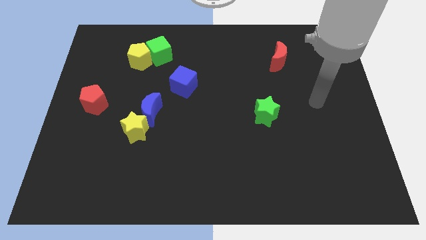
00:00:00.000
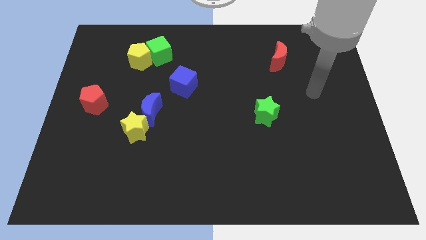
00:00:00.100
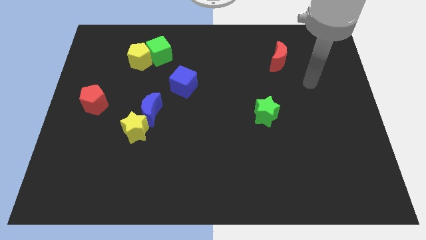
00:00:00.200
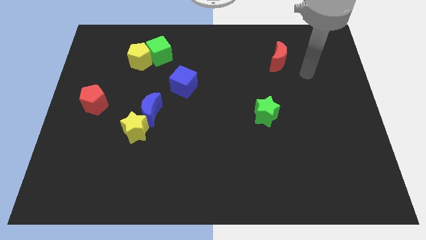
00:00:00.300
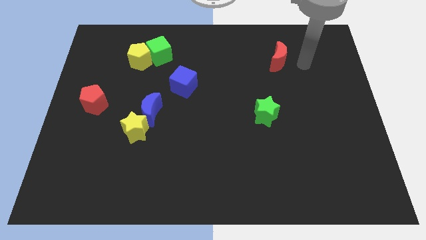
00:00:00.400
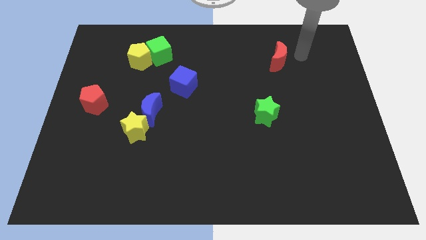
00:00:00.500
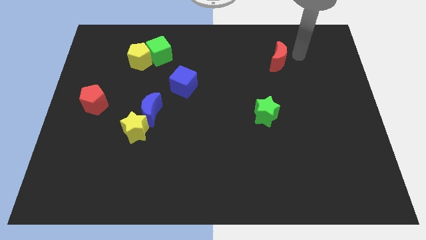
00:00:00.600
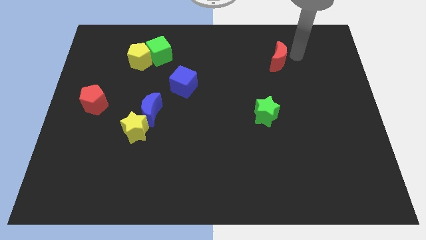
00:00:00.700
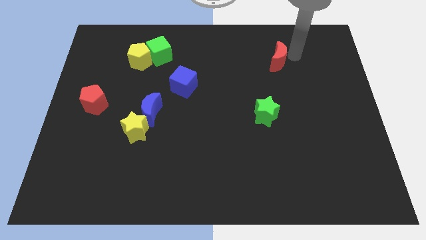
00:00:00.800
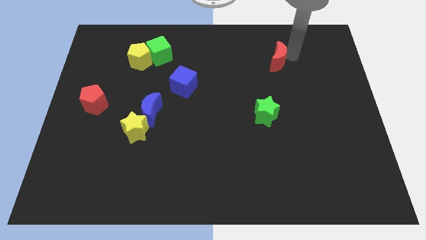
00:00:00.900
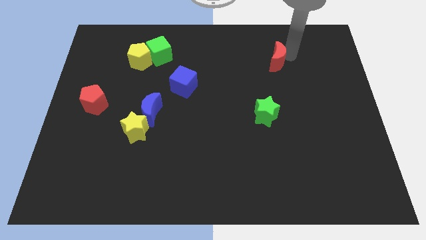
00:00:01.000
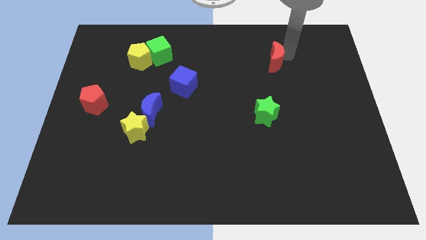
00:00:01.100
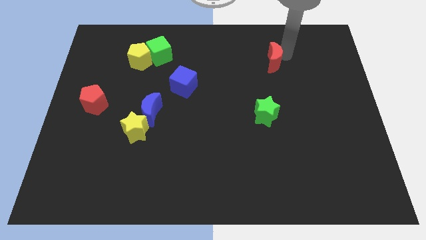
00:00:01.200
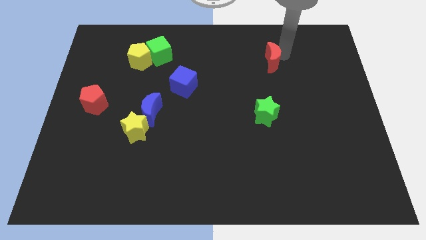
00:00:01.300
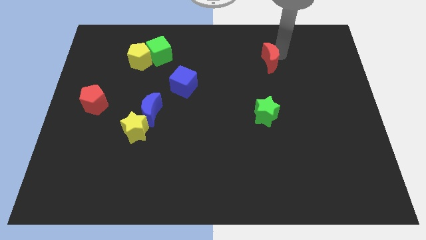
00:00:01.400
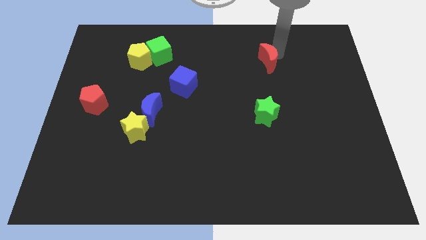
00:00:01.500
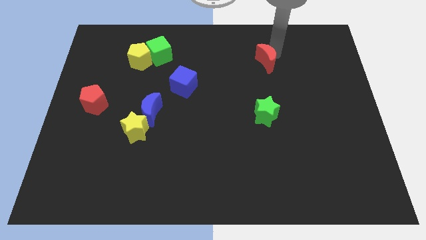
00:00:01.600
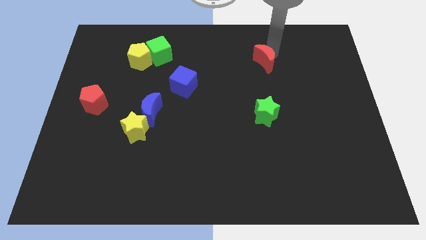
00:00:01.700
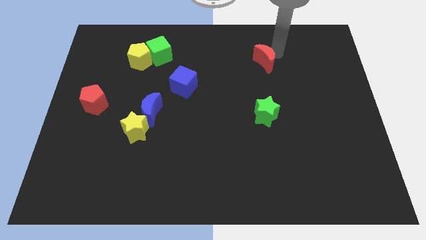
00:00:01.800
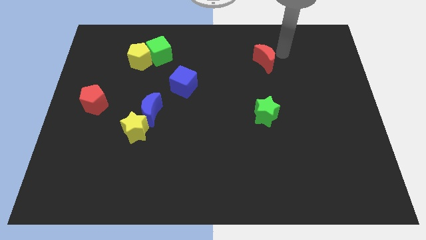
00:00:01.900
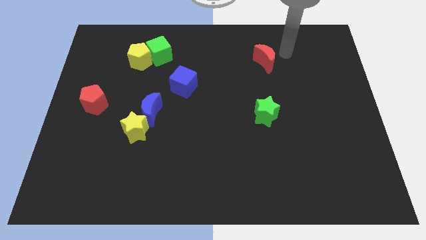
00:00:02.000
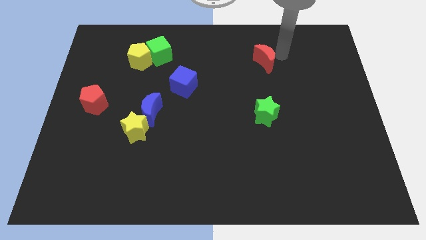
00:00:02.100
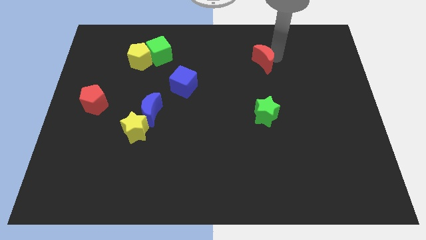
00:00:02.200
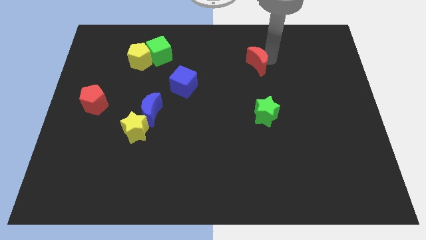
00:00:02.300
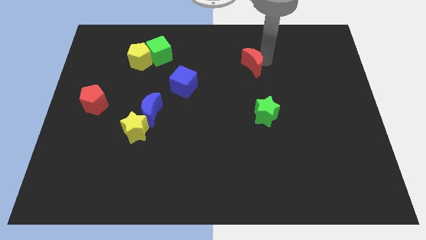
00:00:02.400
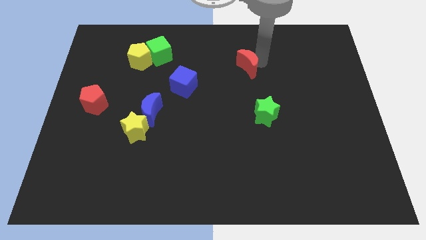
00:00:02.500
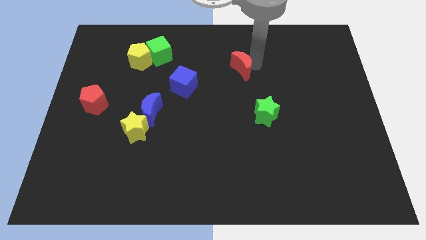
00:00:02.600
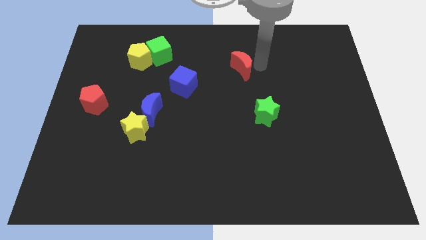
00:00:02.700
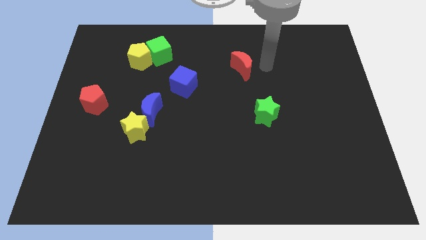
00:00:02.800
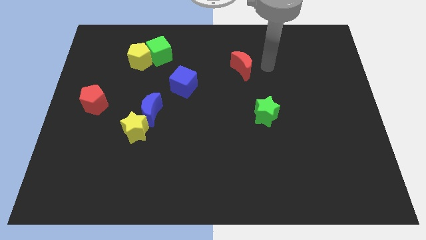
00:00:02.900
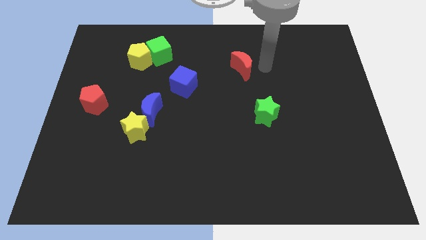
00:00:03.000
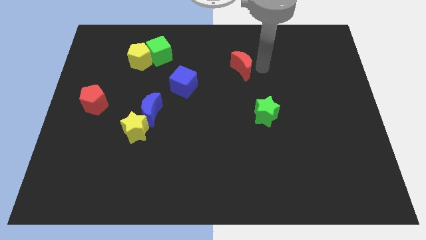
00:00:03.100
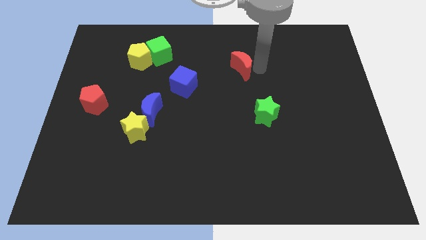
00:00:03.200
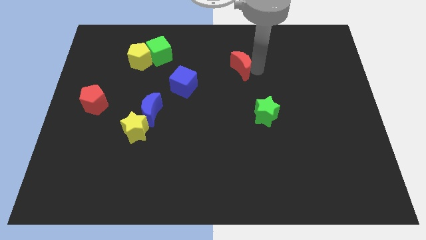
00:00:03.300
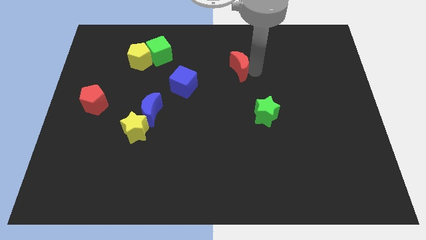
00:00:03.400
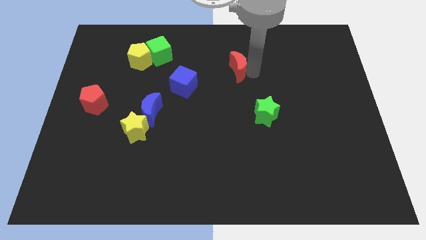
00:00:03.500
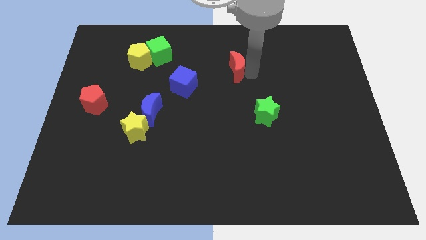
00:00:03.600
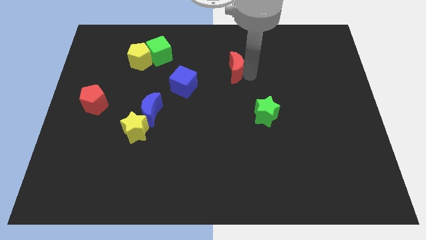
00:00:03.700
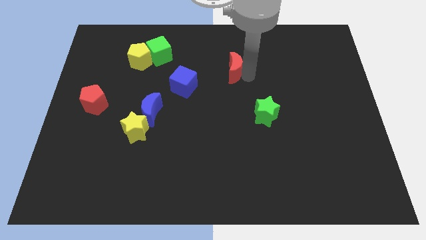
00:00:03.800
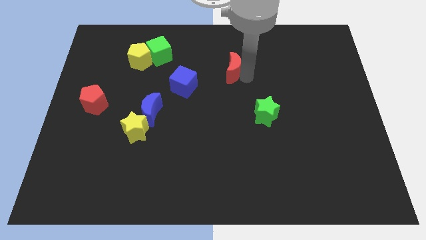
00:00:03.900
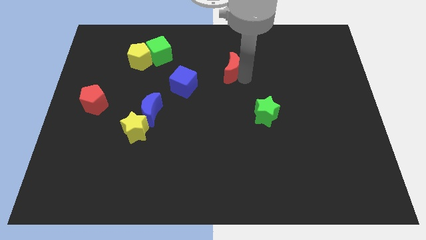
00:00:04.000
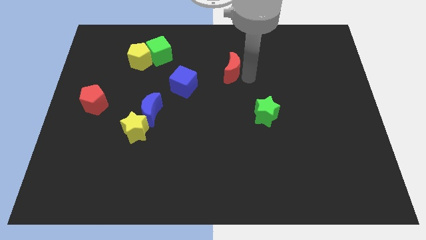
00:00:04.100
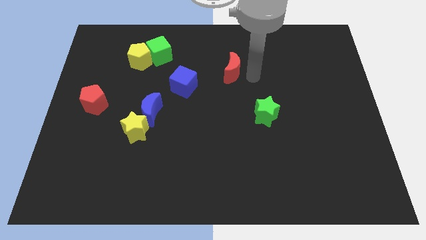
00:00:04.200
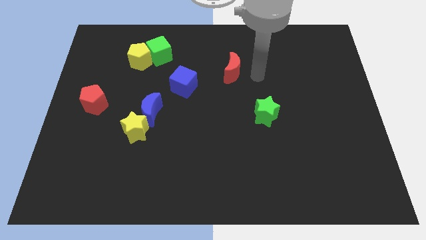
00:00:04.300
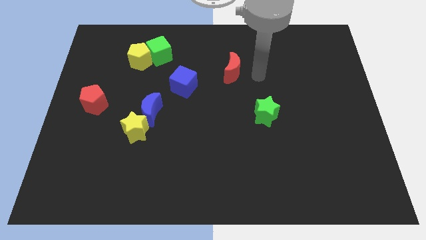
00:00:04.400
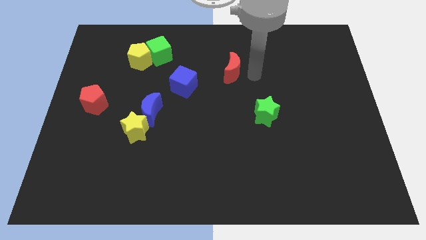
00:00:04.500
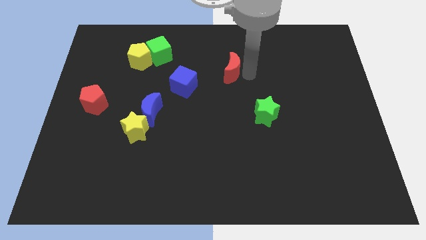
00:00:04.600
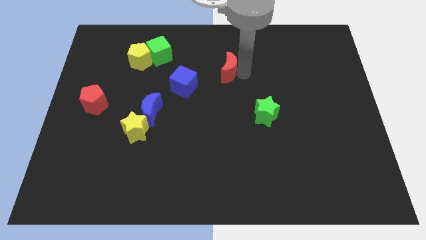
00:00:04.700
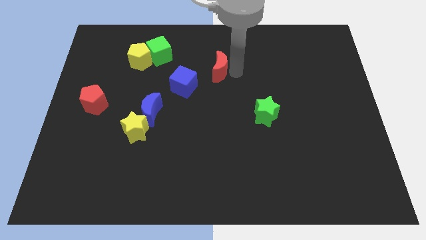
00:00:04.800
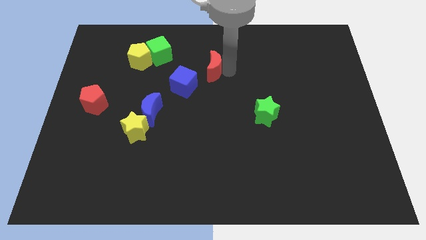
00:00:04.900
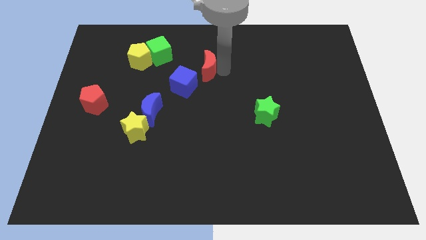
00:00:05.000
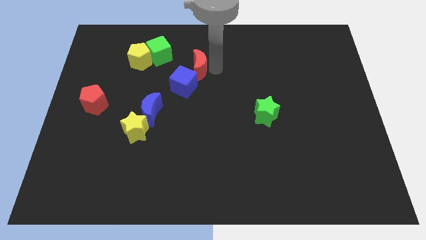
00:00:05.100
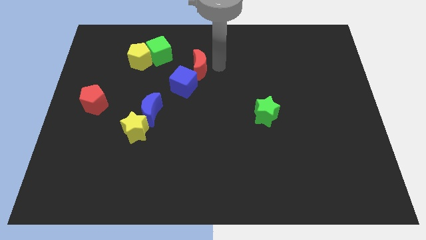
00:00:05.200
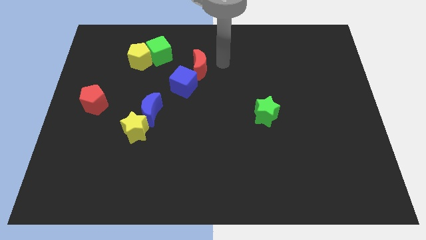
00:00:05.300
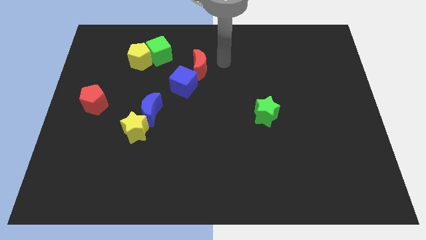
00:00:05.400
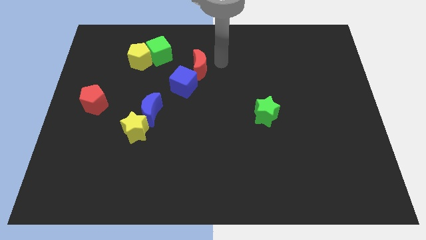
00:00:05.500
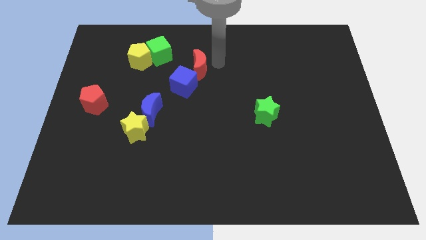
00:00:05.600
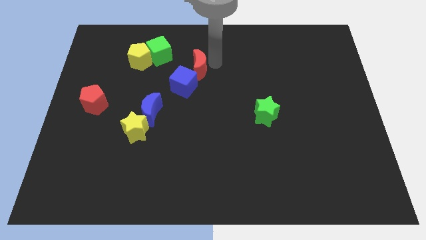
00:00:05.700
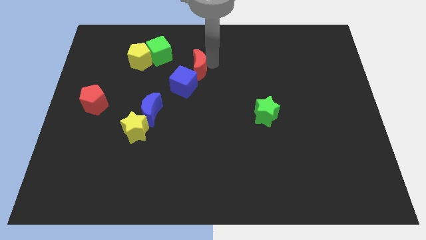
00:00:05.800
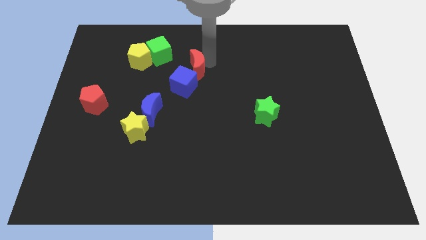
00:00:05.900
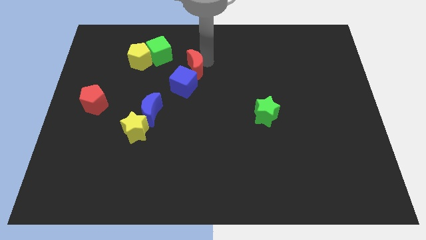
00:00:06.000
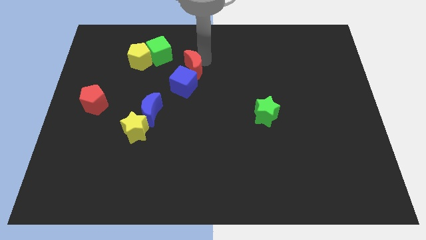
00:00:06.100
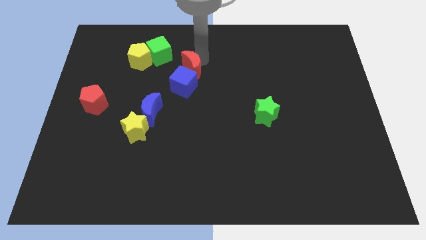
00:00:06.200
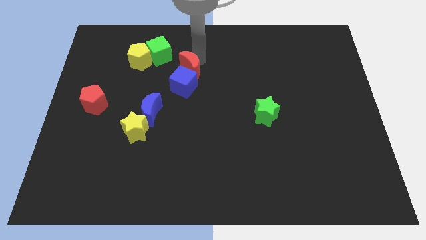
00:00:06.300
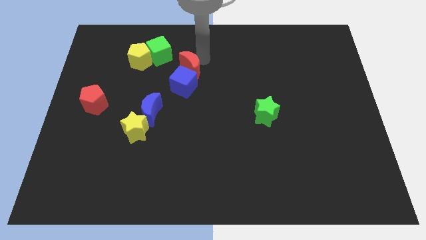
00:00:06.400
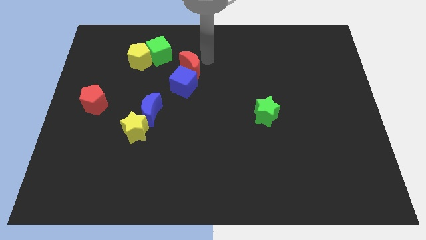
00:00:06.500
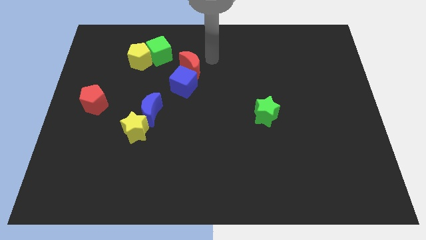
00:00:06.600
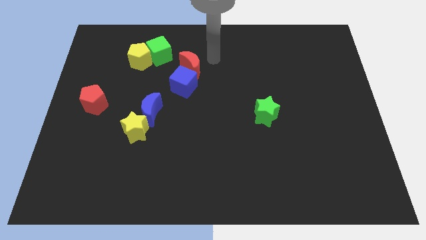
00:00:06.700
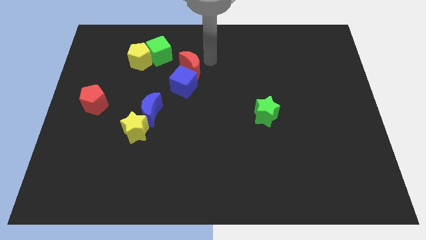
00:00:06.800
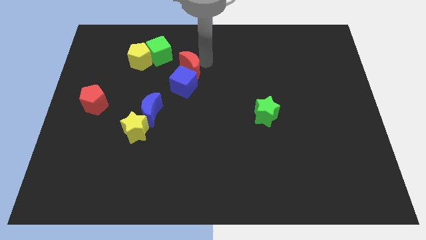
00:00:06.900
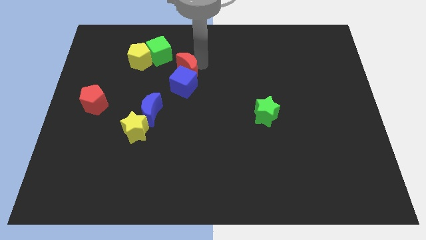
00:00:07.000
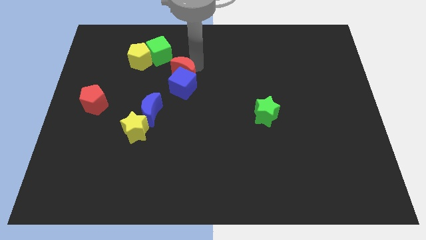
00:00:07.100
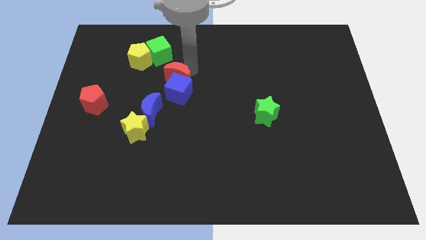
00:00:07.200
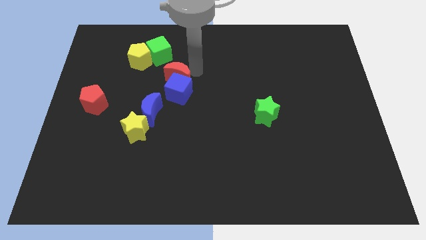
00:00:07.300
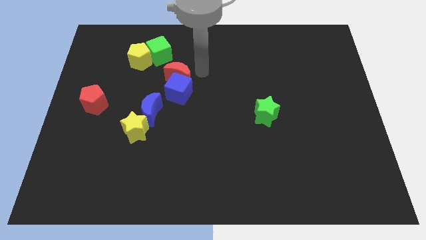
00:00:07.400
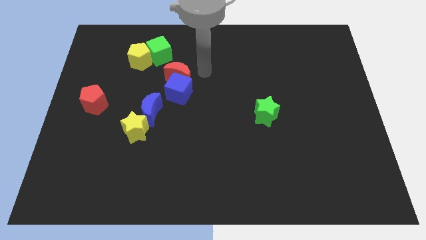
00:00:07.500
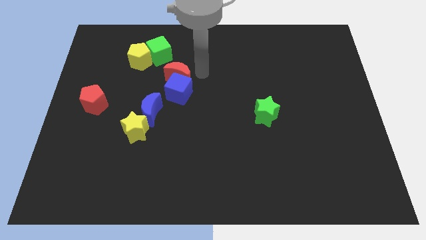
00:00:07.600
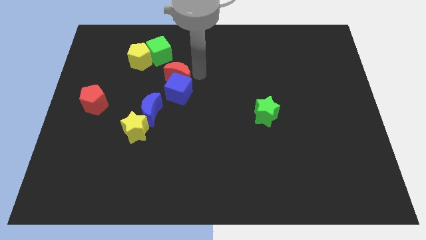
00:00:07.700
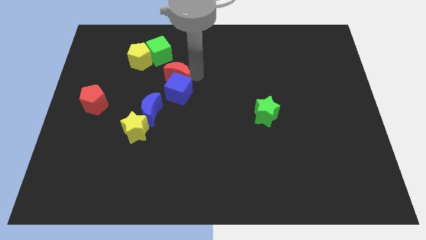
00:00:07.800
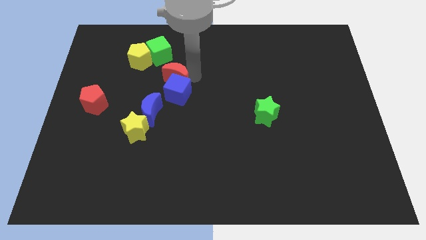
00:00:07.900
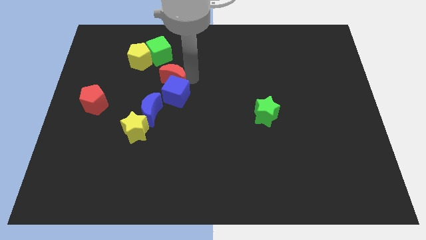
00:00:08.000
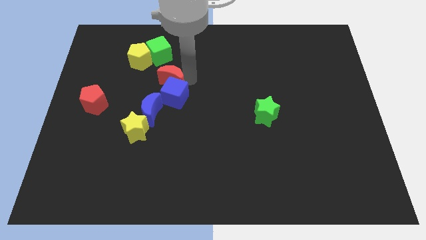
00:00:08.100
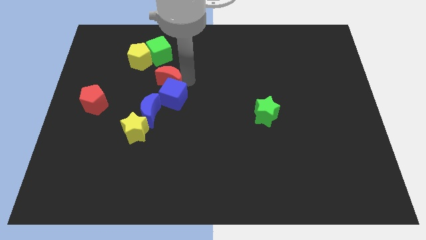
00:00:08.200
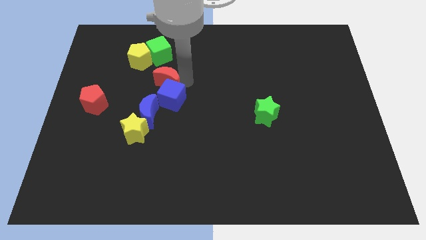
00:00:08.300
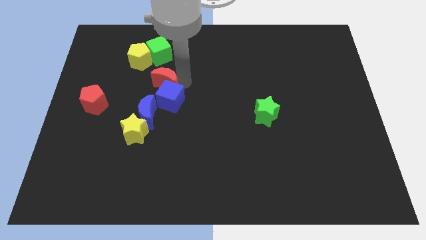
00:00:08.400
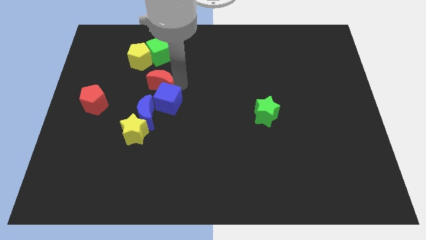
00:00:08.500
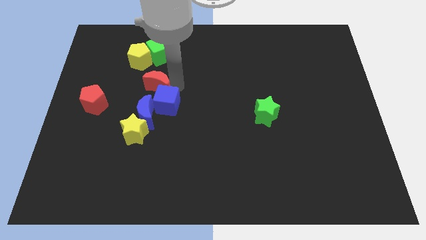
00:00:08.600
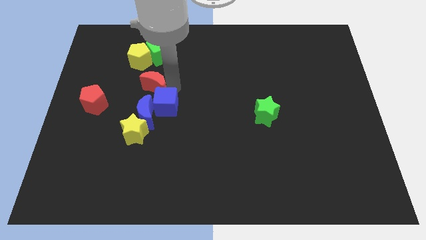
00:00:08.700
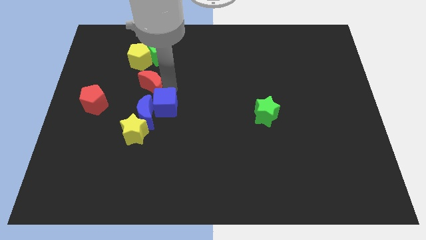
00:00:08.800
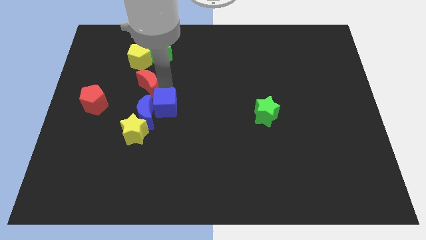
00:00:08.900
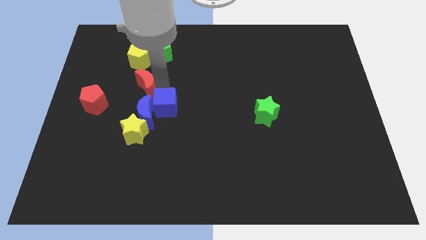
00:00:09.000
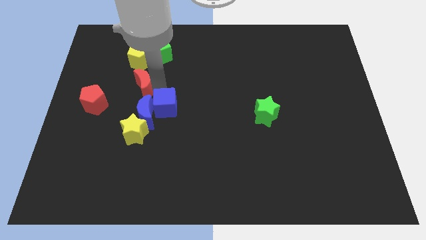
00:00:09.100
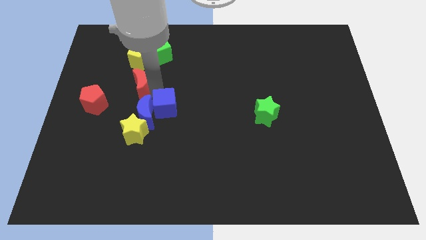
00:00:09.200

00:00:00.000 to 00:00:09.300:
put the red moon to the top right side of the red pentagon
